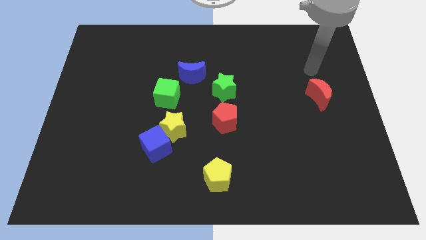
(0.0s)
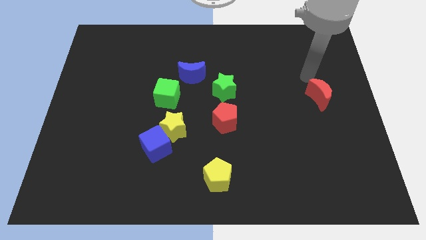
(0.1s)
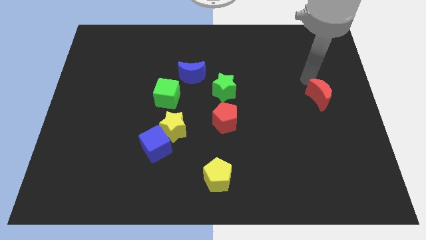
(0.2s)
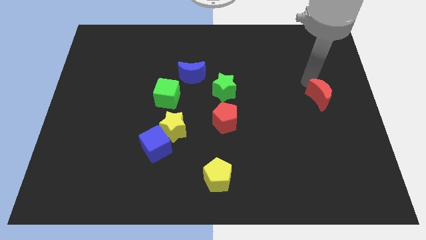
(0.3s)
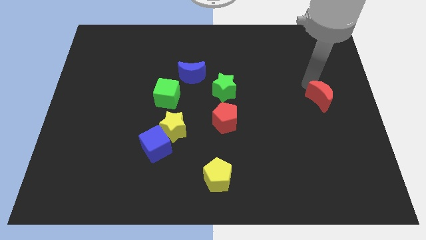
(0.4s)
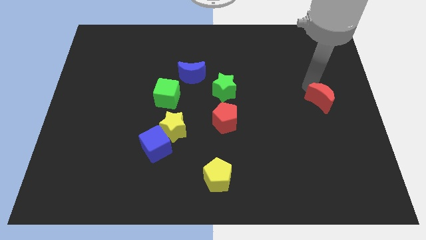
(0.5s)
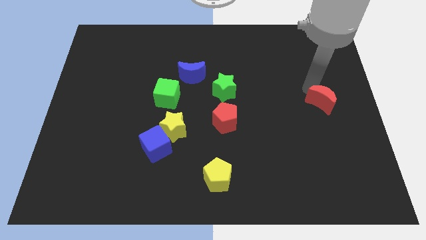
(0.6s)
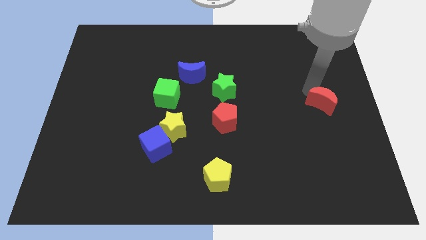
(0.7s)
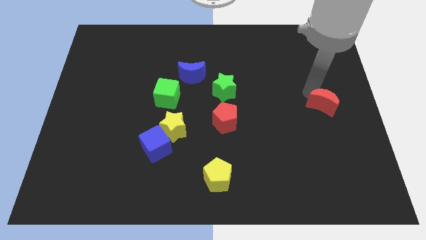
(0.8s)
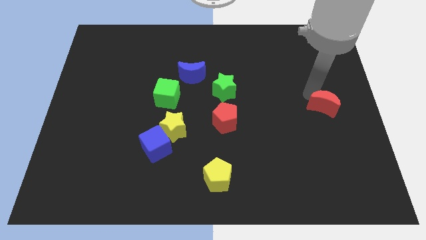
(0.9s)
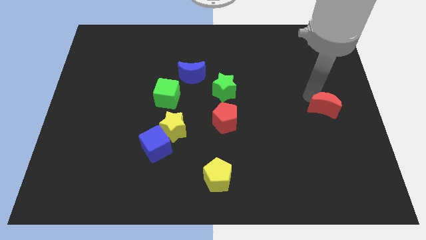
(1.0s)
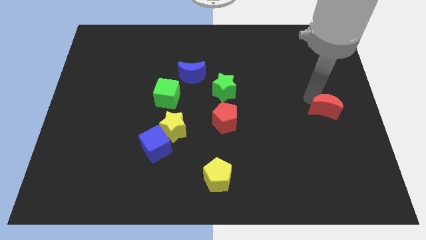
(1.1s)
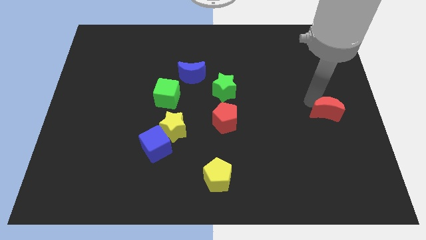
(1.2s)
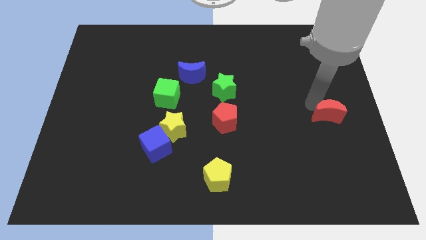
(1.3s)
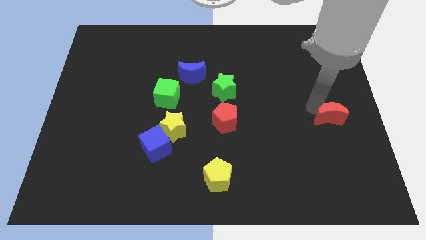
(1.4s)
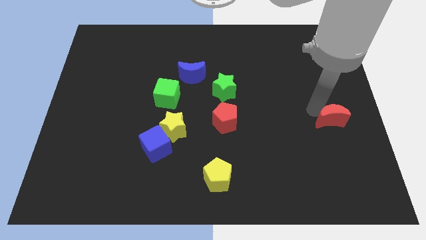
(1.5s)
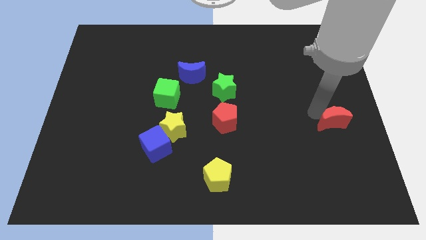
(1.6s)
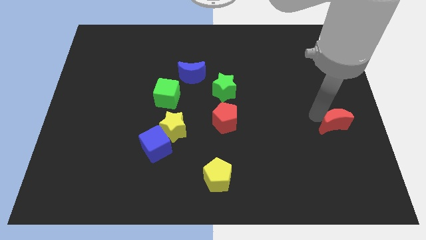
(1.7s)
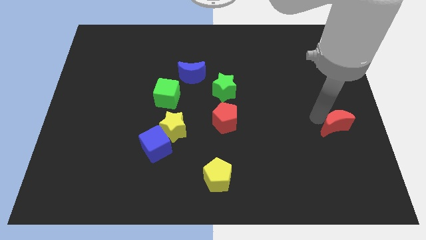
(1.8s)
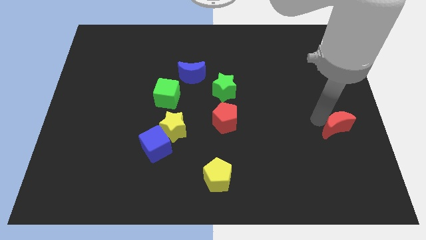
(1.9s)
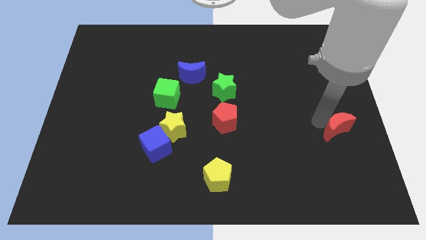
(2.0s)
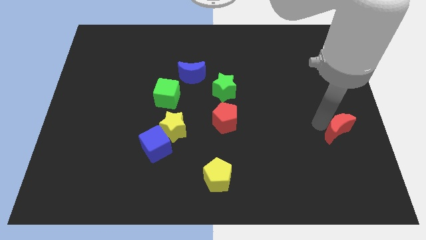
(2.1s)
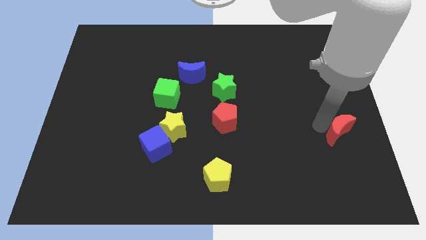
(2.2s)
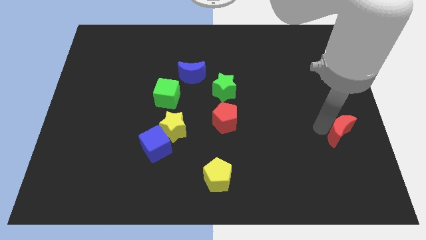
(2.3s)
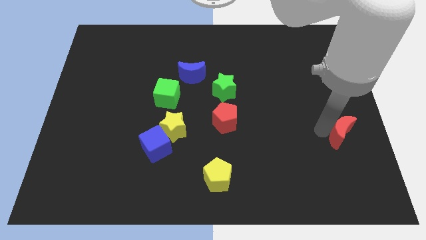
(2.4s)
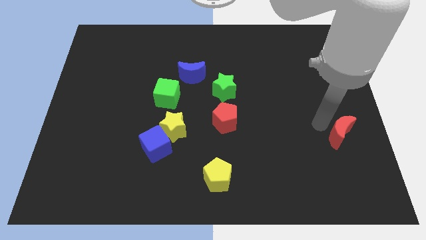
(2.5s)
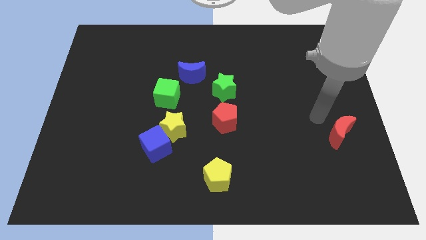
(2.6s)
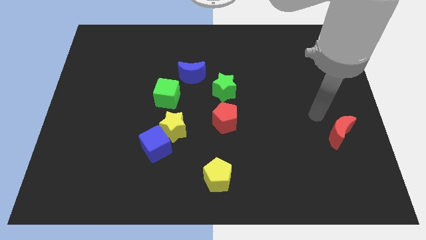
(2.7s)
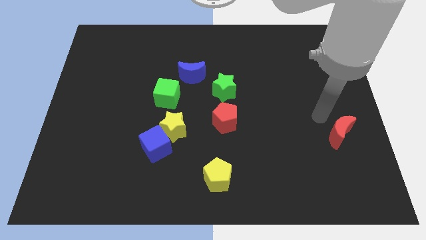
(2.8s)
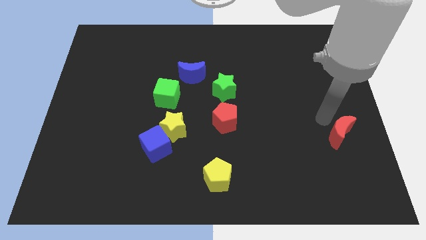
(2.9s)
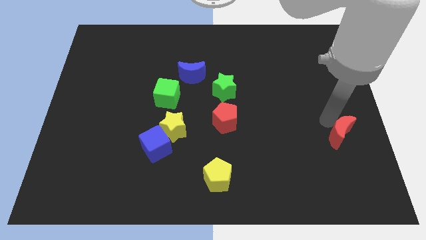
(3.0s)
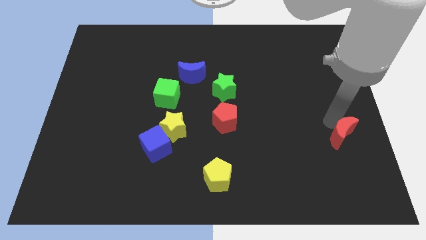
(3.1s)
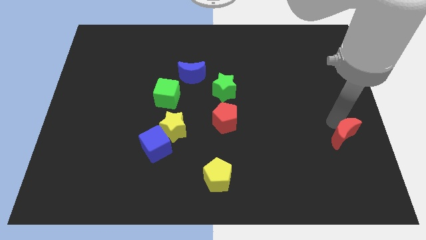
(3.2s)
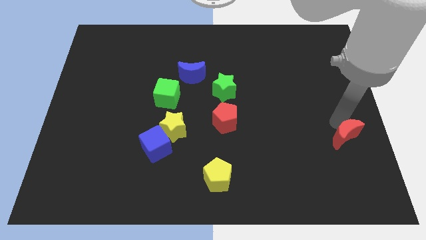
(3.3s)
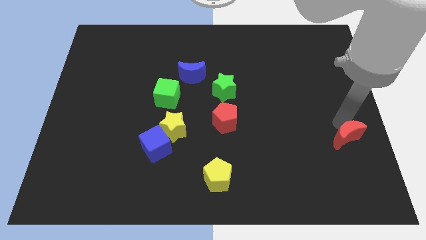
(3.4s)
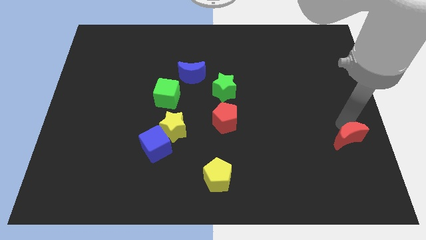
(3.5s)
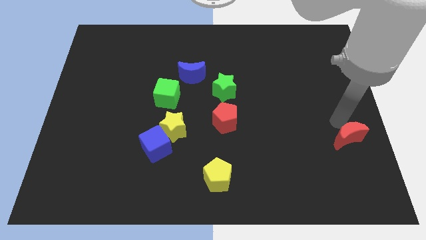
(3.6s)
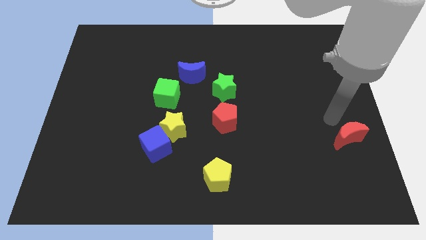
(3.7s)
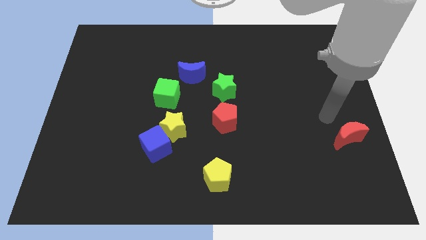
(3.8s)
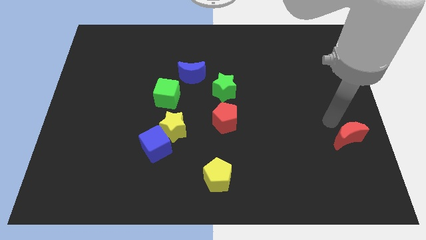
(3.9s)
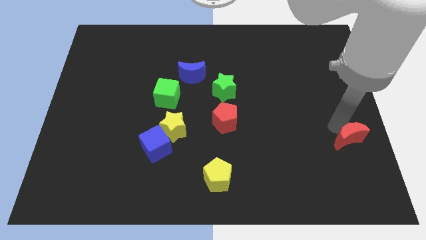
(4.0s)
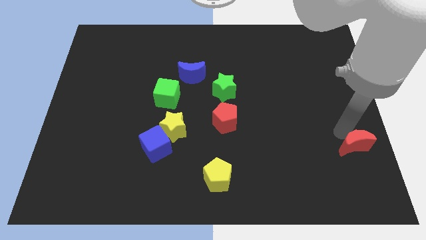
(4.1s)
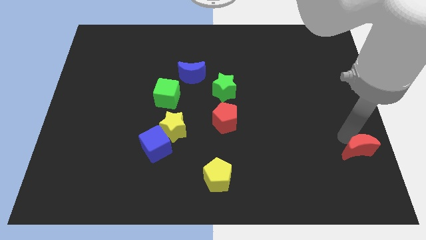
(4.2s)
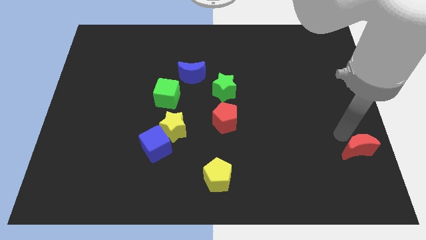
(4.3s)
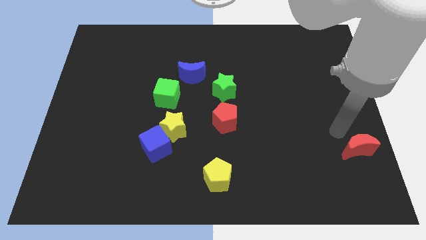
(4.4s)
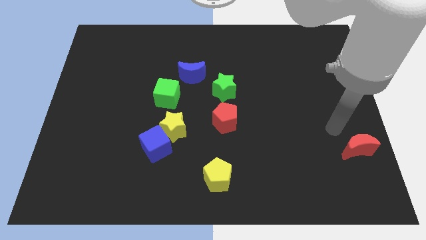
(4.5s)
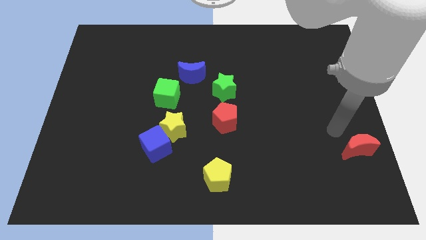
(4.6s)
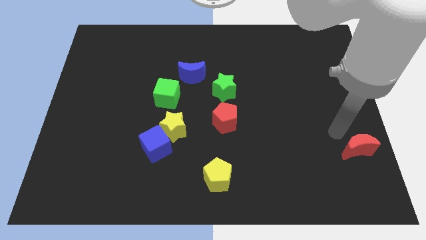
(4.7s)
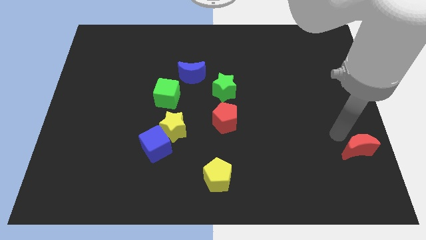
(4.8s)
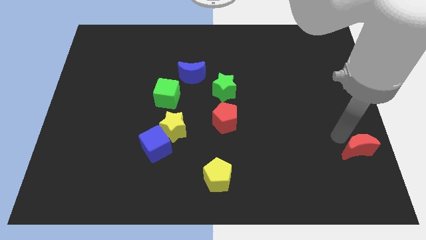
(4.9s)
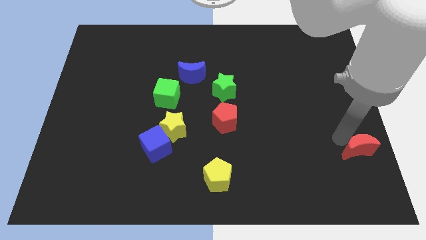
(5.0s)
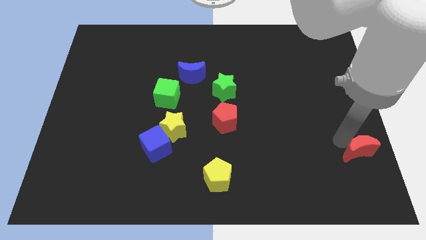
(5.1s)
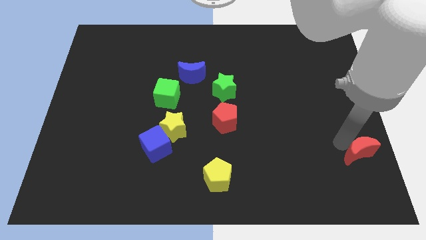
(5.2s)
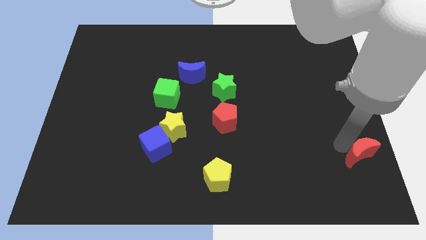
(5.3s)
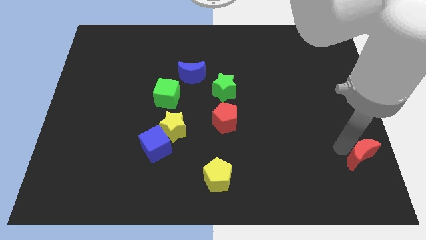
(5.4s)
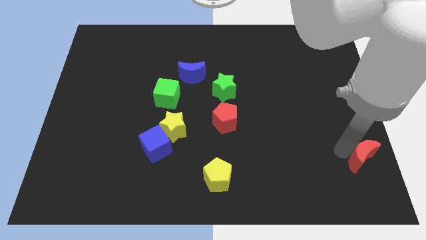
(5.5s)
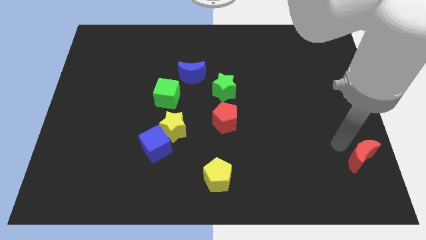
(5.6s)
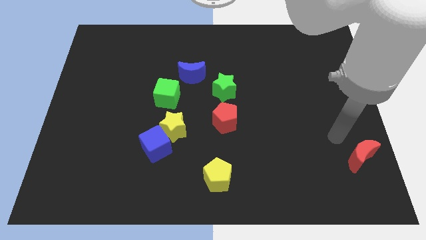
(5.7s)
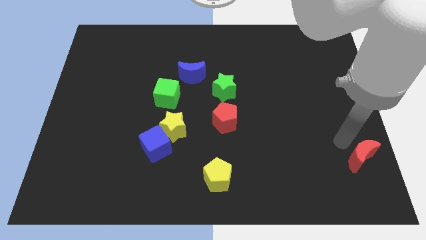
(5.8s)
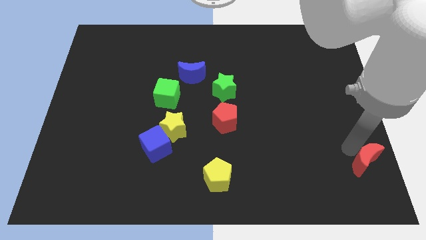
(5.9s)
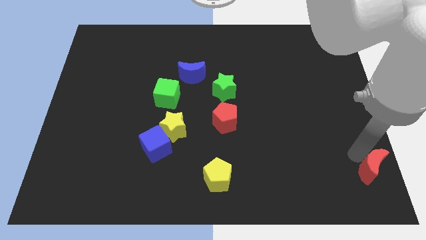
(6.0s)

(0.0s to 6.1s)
slide the red moon to the lower right corner

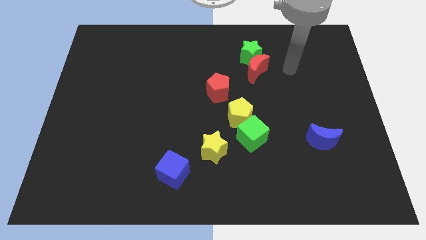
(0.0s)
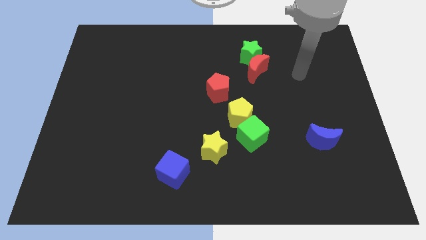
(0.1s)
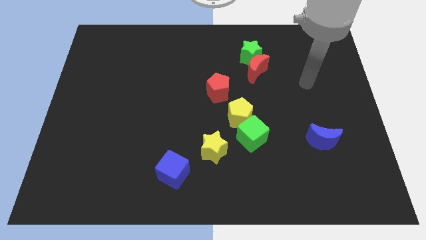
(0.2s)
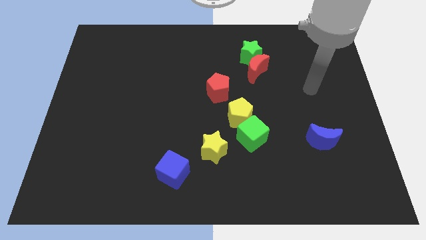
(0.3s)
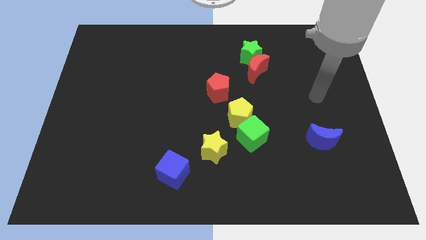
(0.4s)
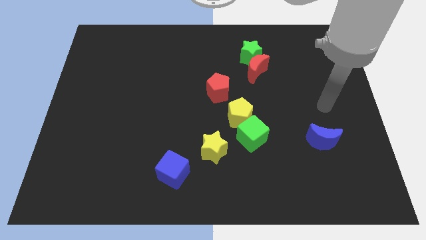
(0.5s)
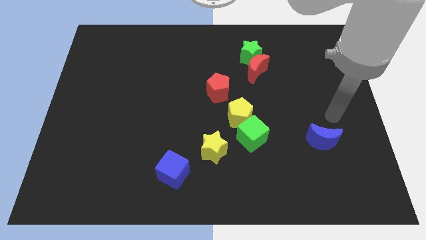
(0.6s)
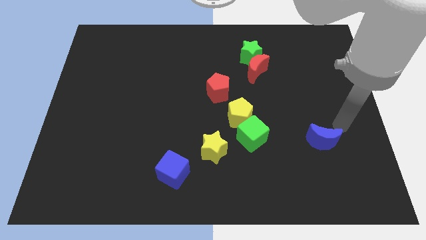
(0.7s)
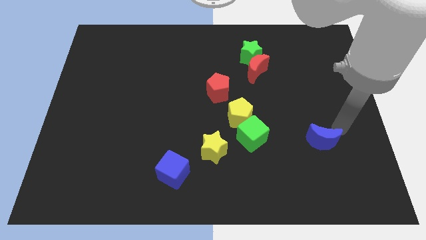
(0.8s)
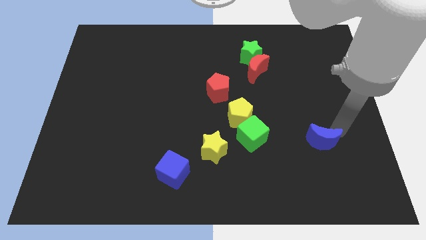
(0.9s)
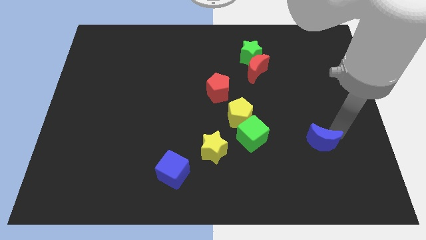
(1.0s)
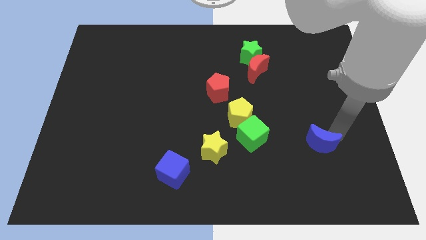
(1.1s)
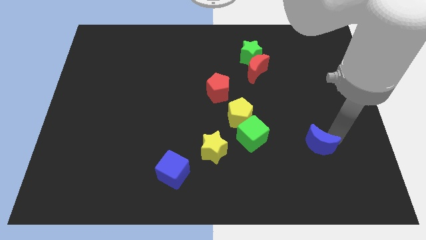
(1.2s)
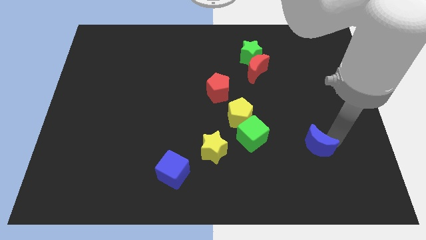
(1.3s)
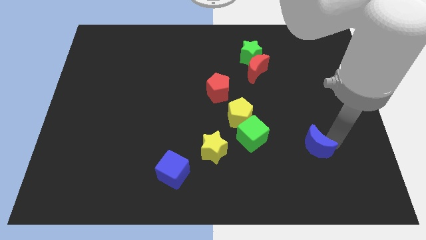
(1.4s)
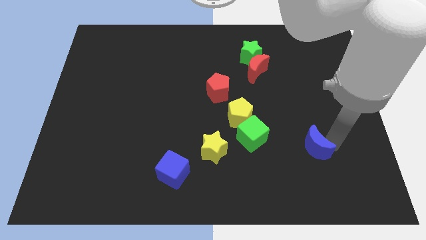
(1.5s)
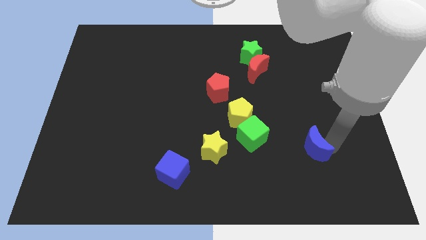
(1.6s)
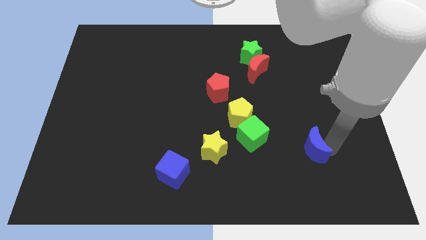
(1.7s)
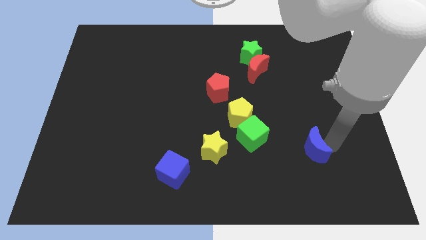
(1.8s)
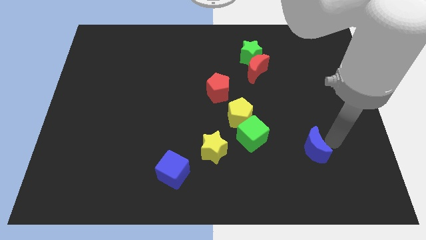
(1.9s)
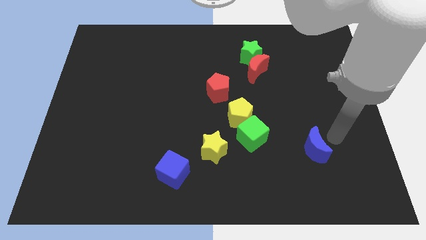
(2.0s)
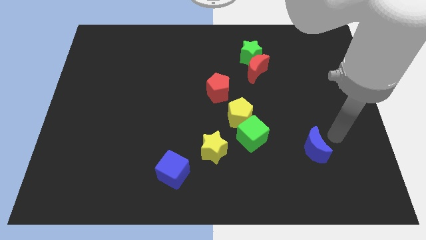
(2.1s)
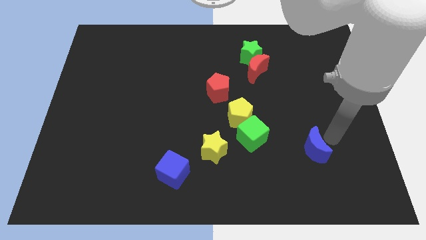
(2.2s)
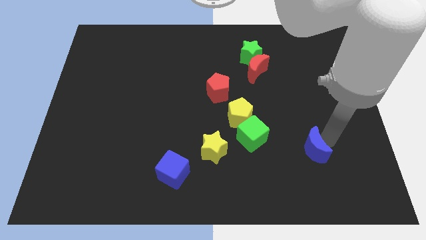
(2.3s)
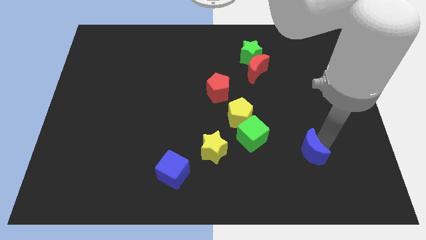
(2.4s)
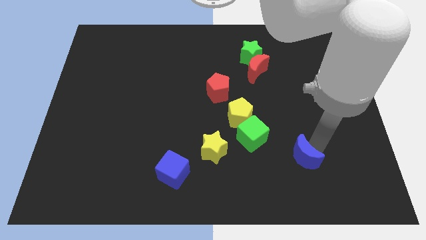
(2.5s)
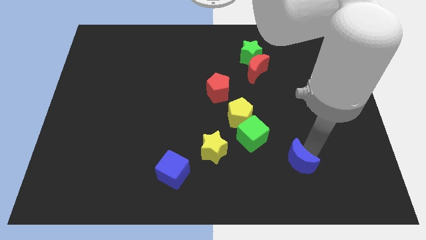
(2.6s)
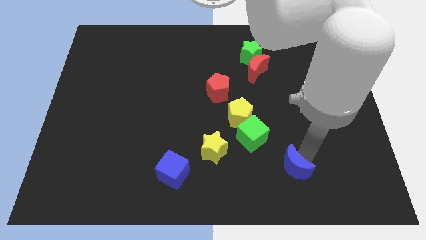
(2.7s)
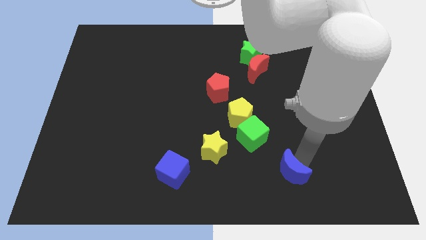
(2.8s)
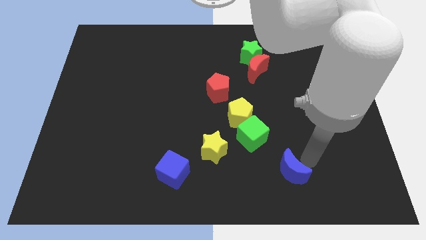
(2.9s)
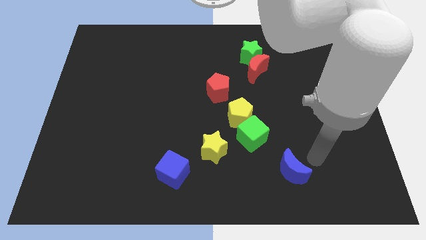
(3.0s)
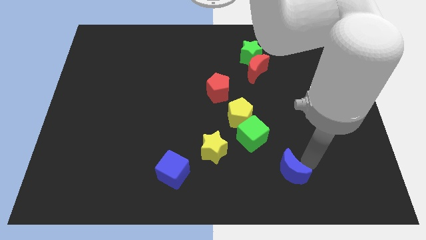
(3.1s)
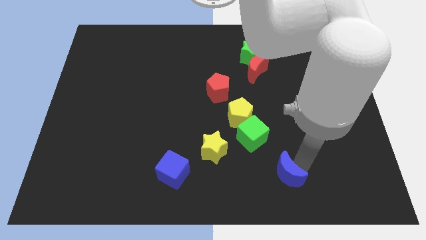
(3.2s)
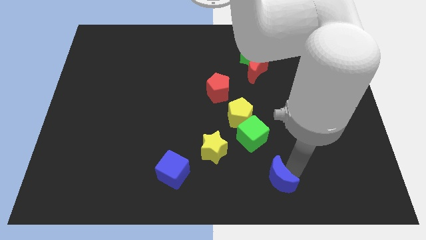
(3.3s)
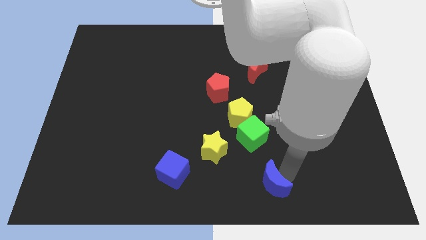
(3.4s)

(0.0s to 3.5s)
slide the blue moon to the bottom side
